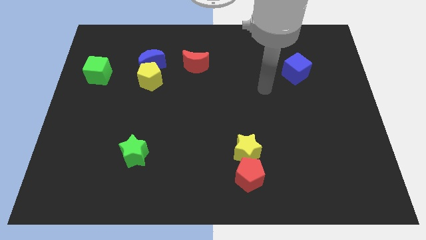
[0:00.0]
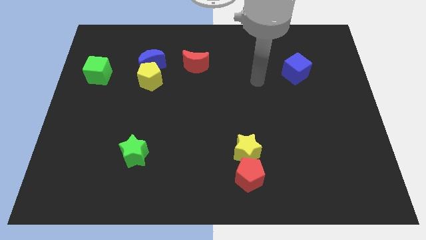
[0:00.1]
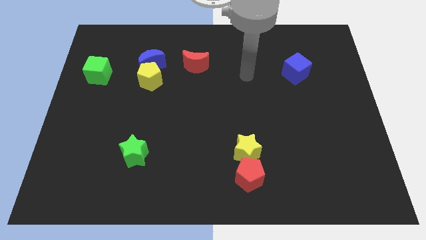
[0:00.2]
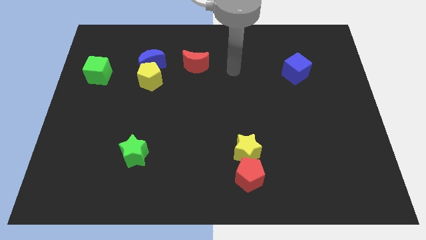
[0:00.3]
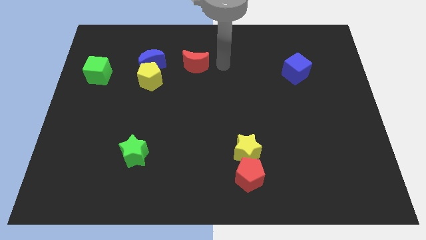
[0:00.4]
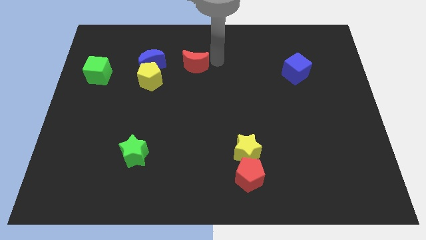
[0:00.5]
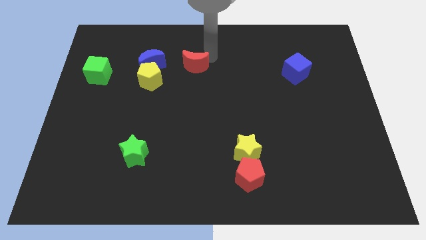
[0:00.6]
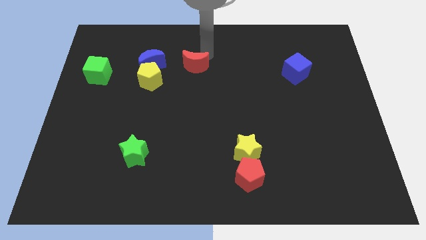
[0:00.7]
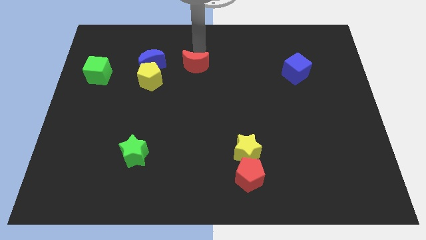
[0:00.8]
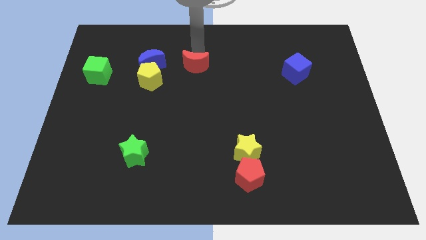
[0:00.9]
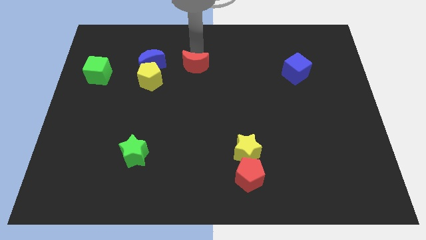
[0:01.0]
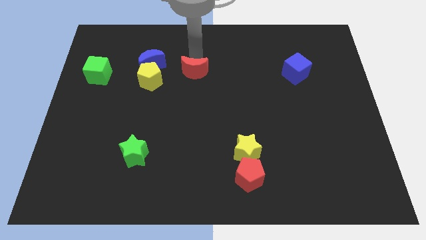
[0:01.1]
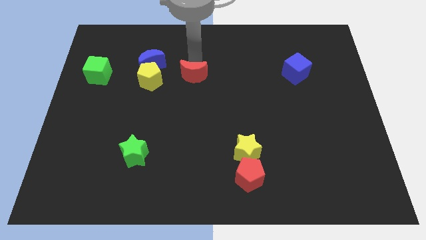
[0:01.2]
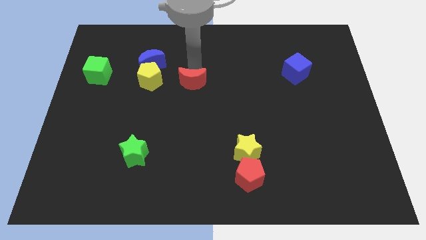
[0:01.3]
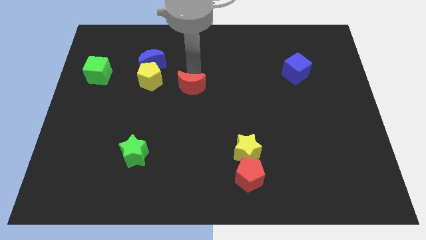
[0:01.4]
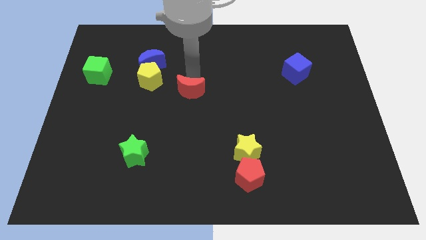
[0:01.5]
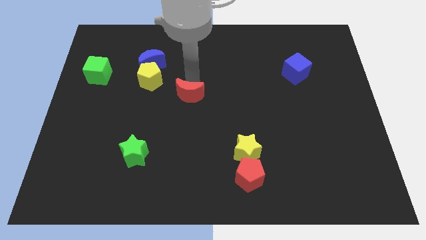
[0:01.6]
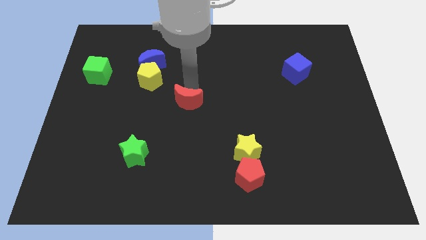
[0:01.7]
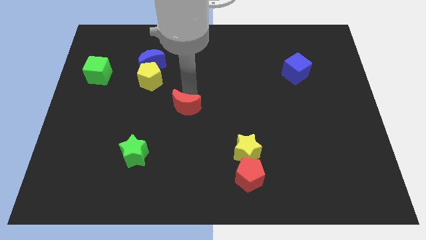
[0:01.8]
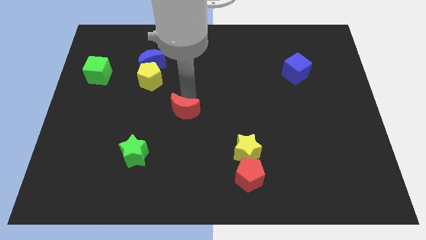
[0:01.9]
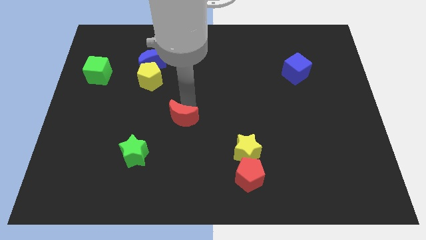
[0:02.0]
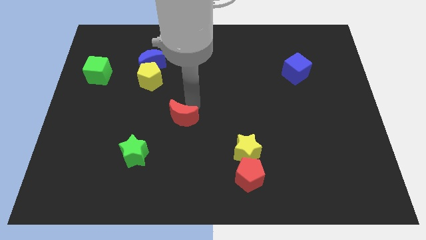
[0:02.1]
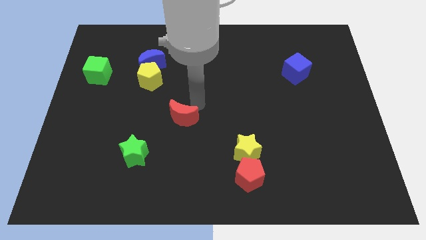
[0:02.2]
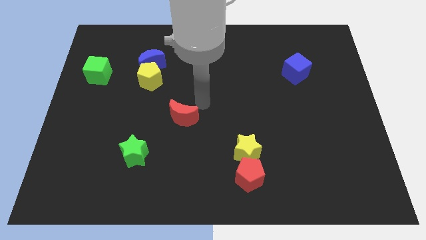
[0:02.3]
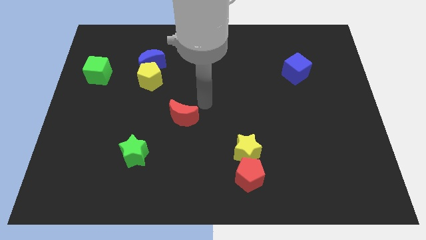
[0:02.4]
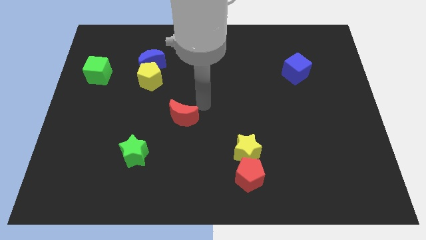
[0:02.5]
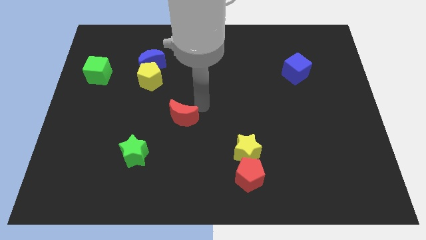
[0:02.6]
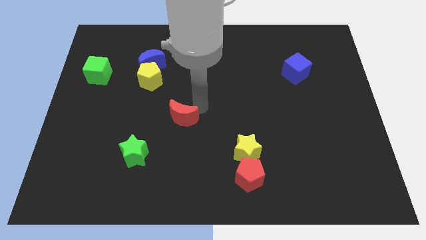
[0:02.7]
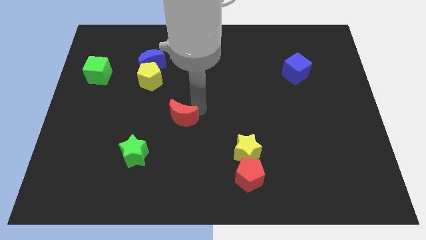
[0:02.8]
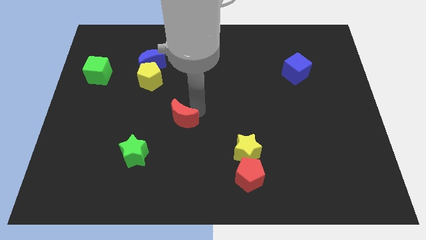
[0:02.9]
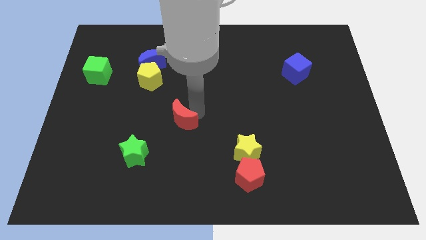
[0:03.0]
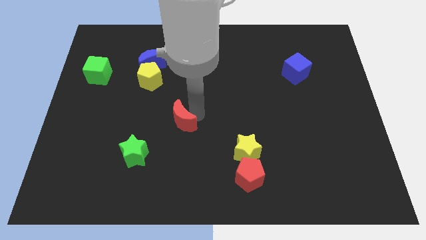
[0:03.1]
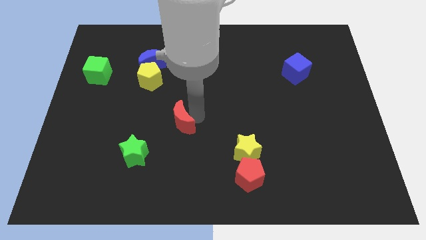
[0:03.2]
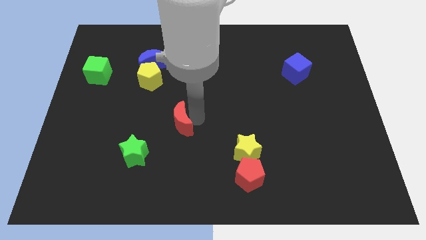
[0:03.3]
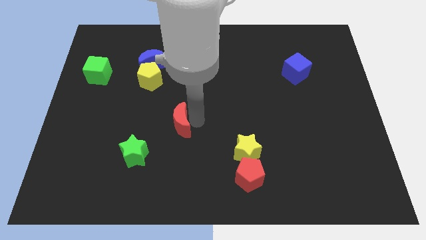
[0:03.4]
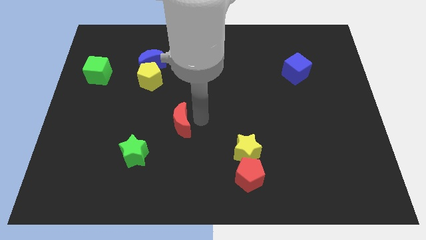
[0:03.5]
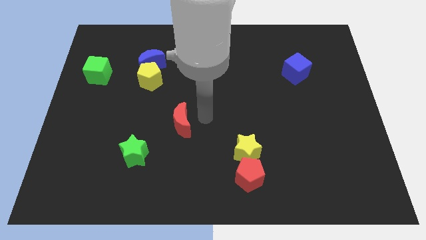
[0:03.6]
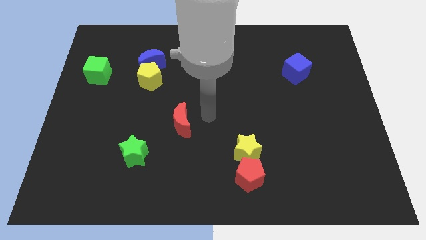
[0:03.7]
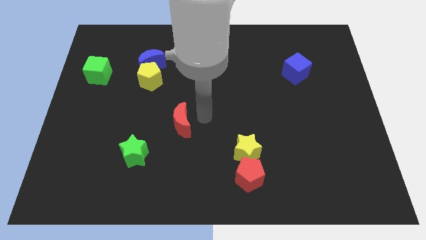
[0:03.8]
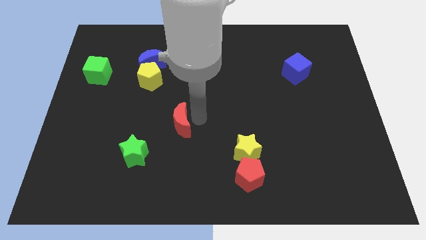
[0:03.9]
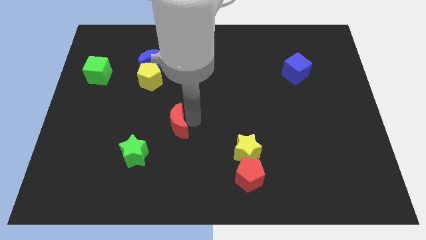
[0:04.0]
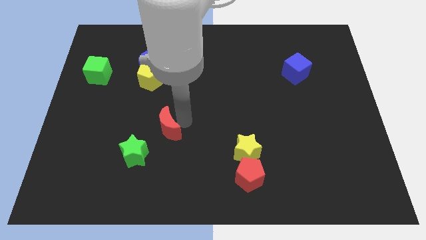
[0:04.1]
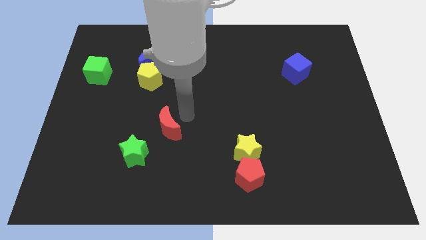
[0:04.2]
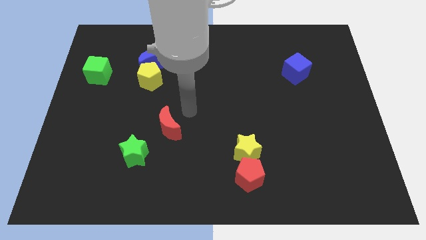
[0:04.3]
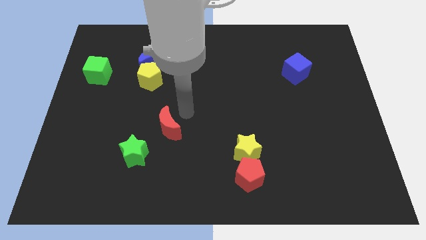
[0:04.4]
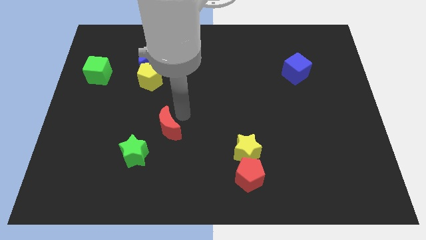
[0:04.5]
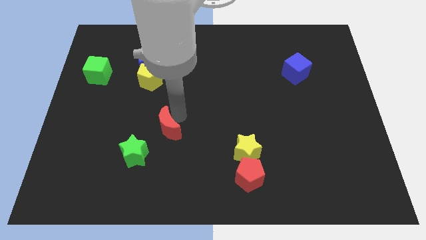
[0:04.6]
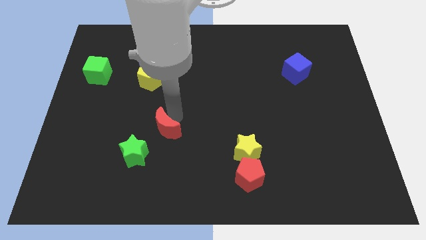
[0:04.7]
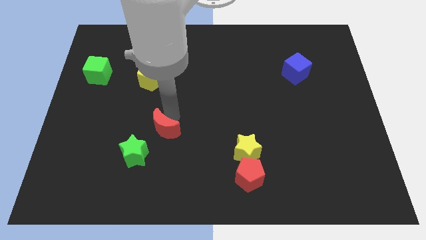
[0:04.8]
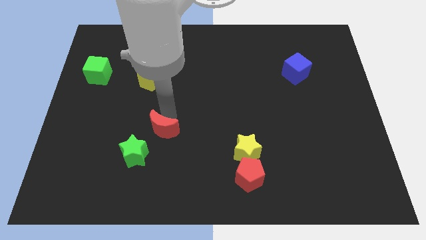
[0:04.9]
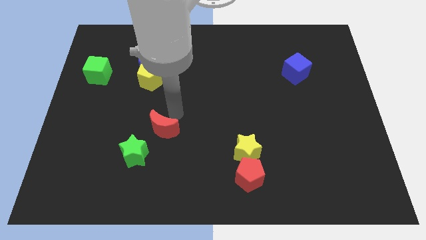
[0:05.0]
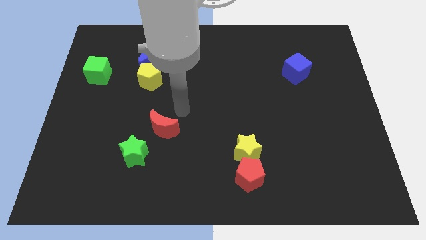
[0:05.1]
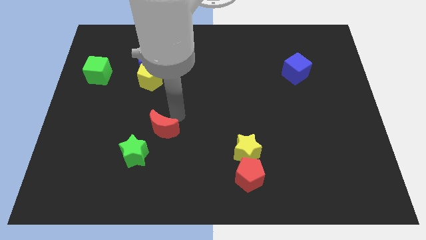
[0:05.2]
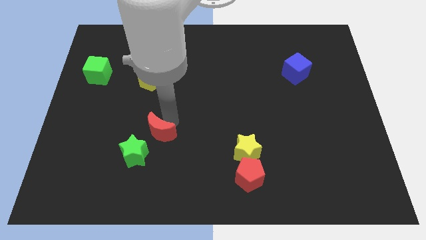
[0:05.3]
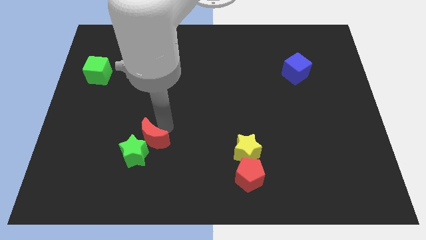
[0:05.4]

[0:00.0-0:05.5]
put the red moon next to the green star

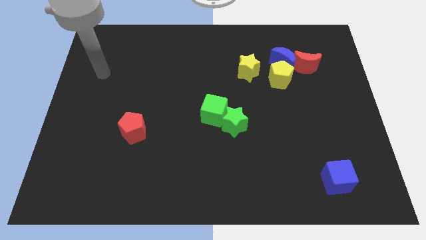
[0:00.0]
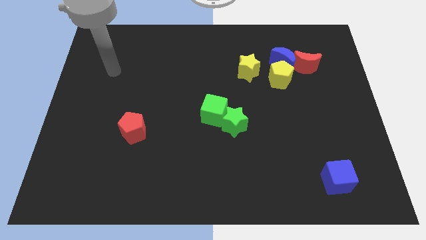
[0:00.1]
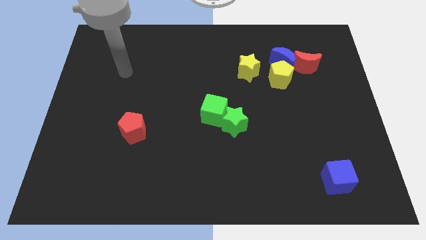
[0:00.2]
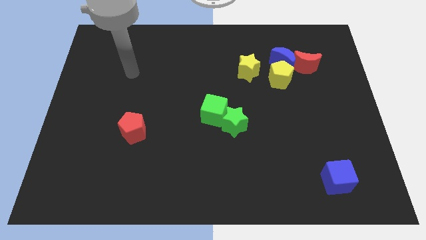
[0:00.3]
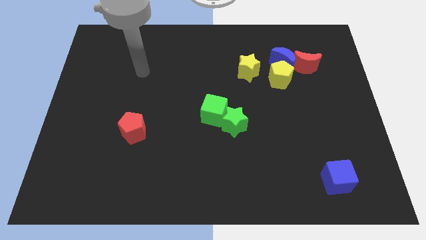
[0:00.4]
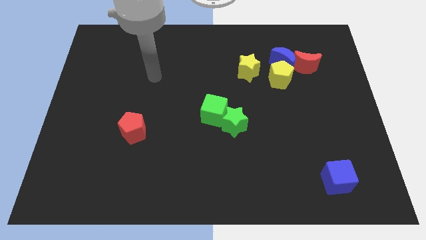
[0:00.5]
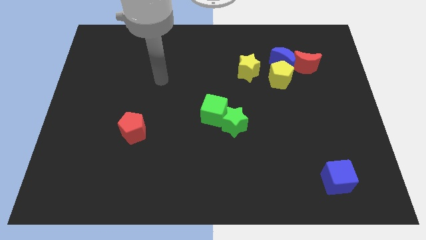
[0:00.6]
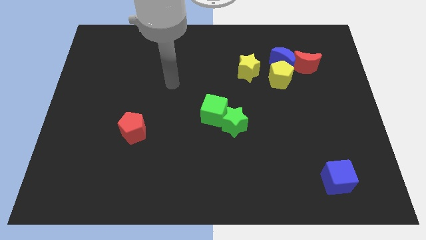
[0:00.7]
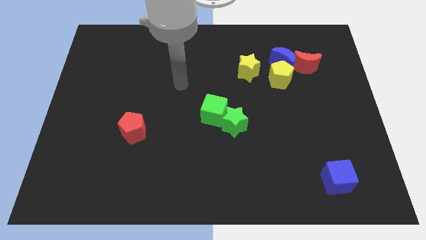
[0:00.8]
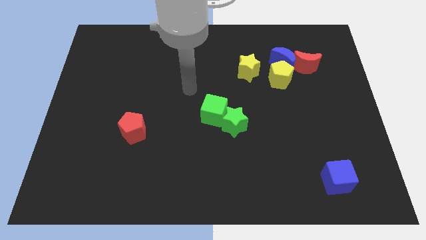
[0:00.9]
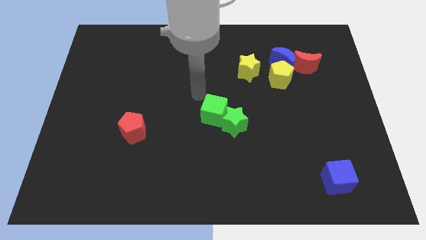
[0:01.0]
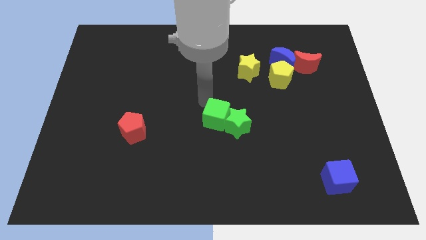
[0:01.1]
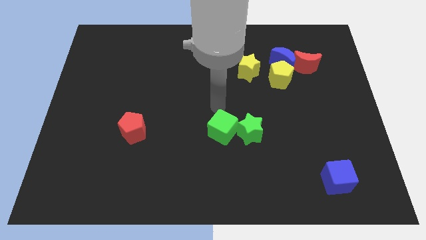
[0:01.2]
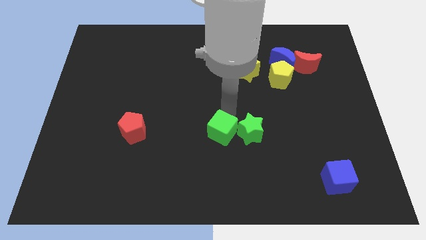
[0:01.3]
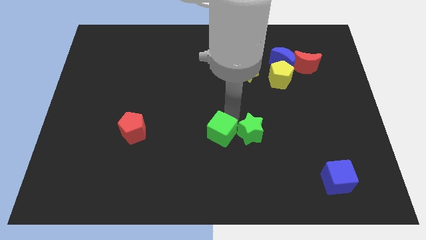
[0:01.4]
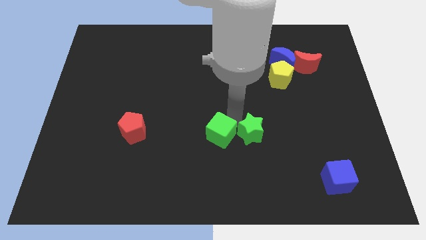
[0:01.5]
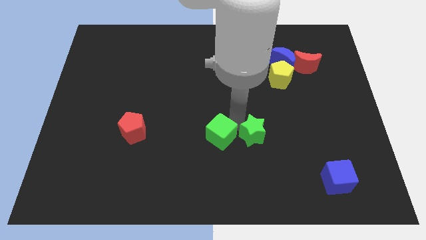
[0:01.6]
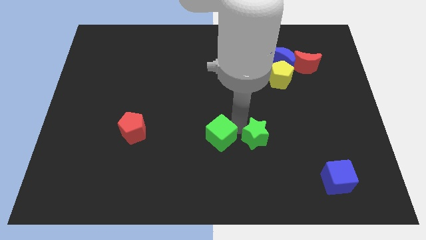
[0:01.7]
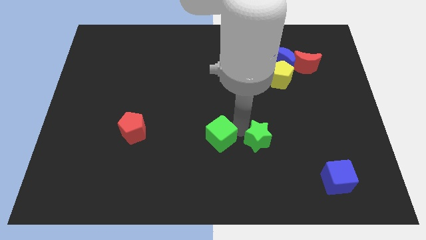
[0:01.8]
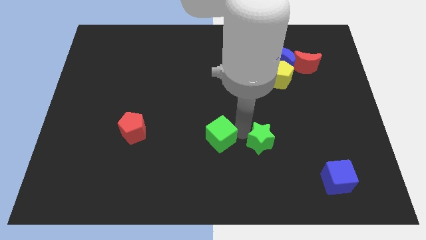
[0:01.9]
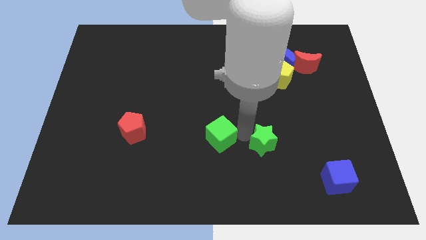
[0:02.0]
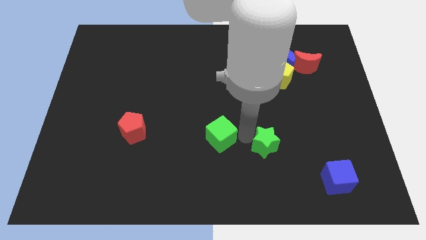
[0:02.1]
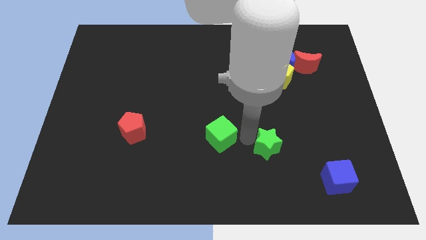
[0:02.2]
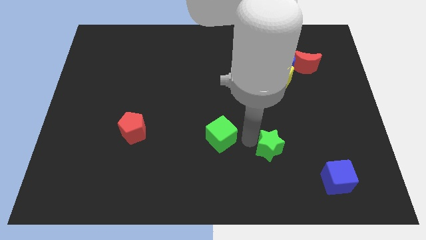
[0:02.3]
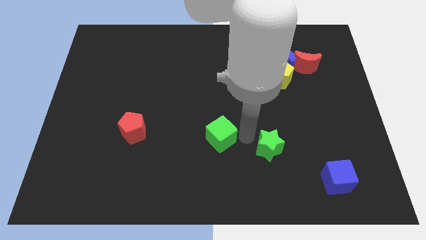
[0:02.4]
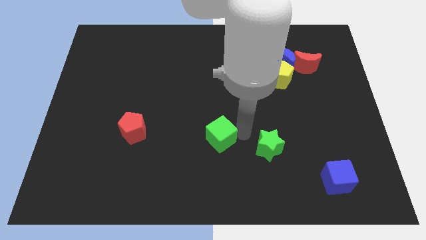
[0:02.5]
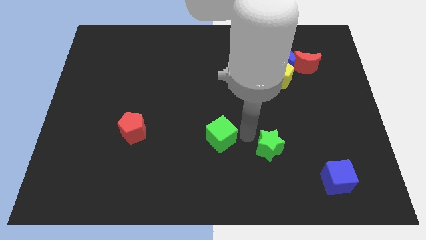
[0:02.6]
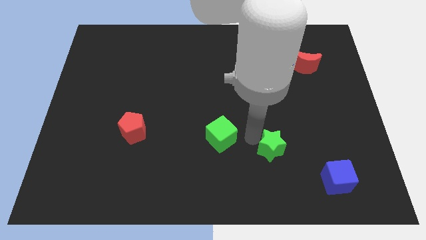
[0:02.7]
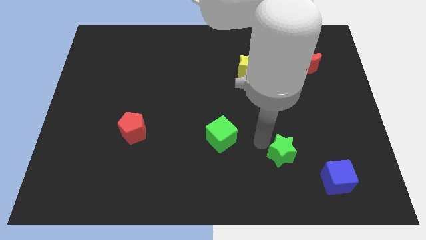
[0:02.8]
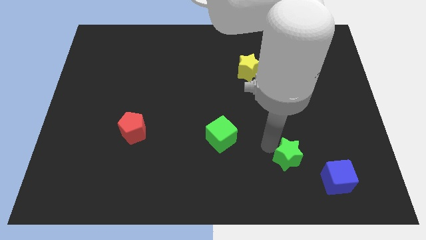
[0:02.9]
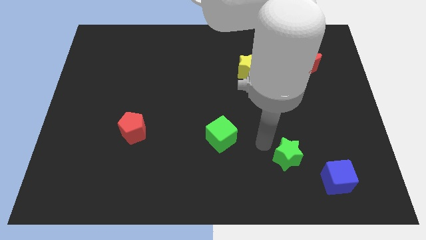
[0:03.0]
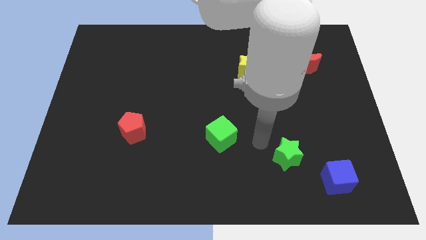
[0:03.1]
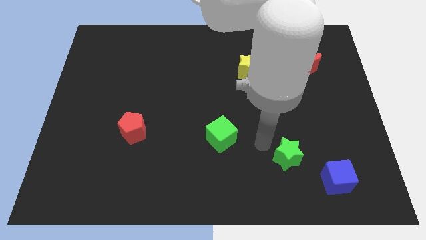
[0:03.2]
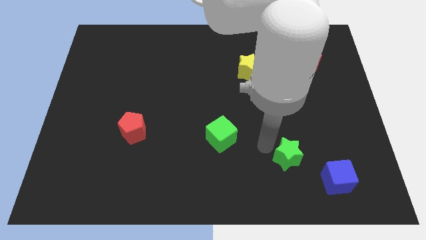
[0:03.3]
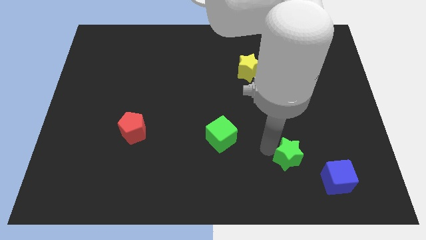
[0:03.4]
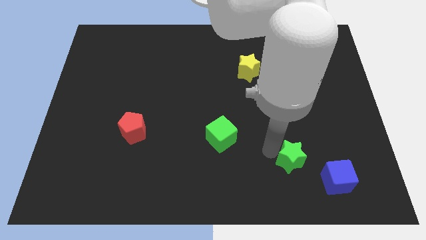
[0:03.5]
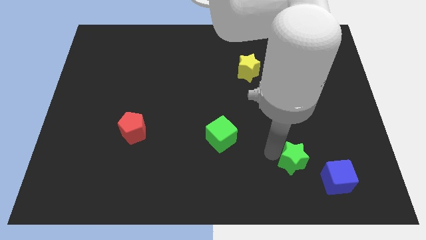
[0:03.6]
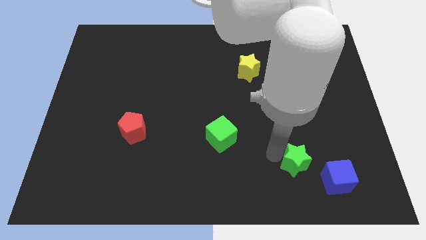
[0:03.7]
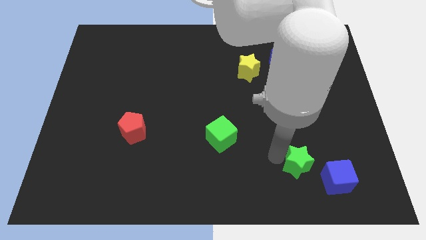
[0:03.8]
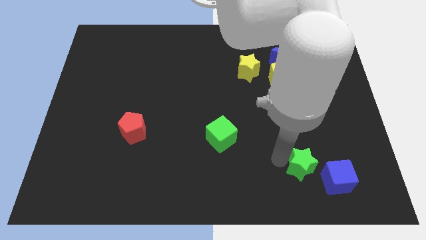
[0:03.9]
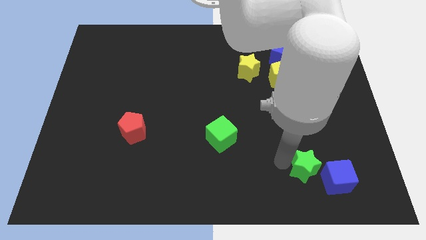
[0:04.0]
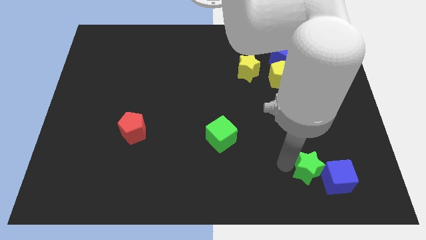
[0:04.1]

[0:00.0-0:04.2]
slide the green star to the blue cube
